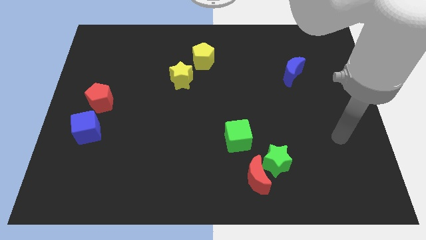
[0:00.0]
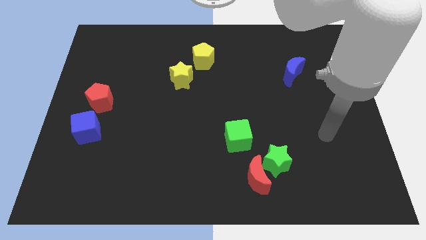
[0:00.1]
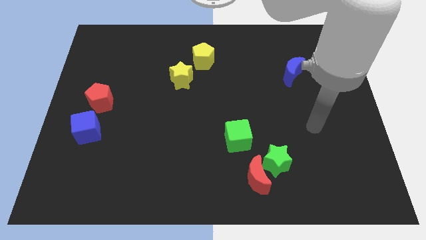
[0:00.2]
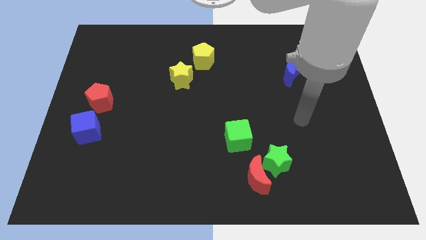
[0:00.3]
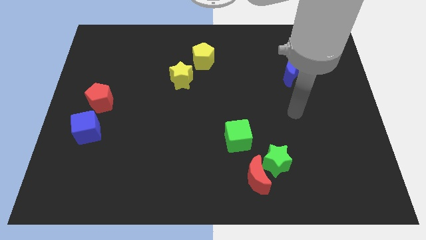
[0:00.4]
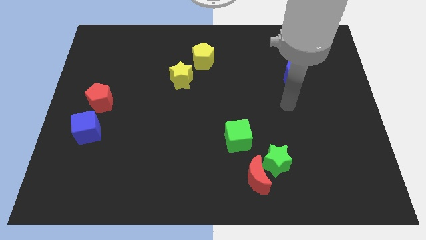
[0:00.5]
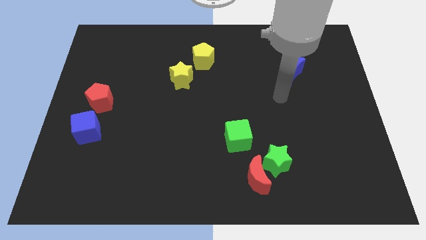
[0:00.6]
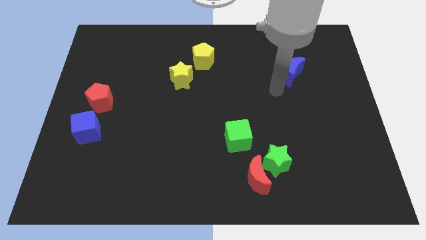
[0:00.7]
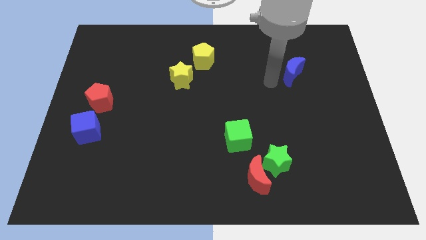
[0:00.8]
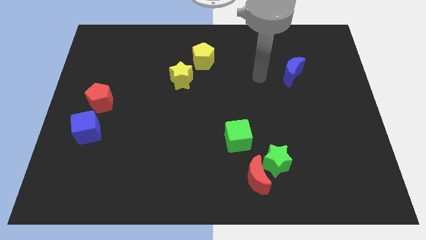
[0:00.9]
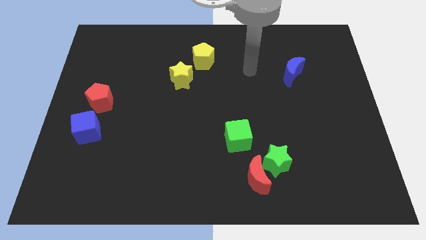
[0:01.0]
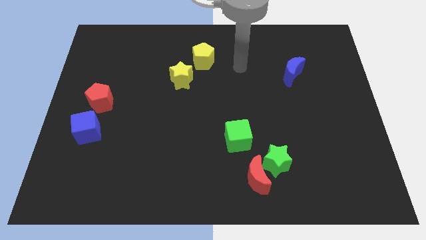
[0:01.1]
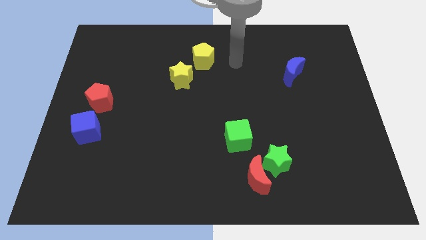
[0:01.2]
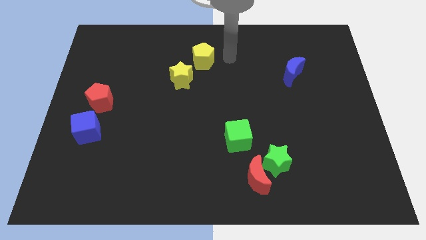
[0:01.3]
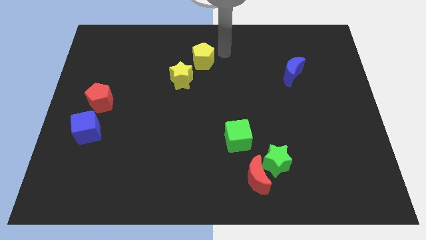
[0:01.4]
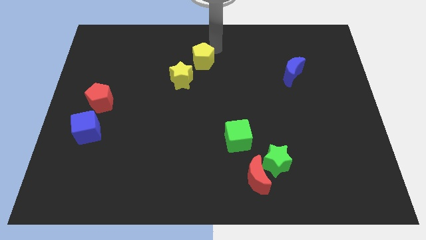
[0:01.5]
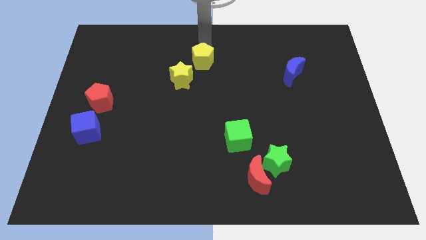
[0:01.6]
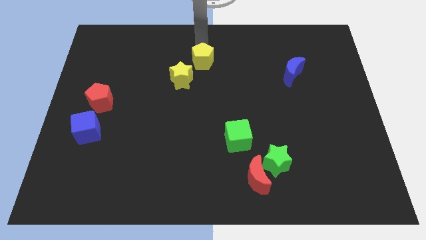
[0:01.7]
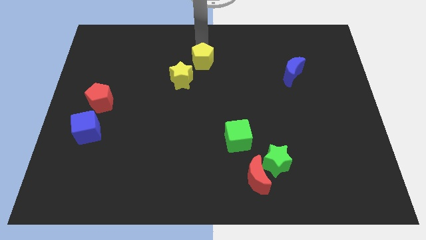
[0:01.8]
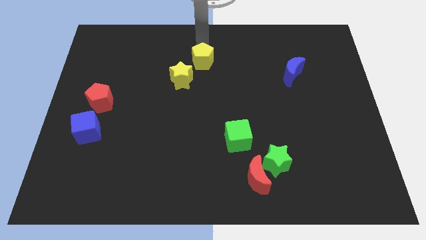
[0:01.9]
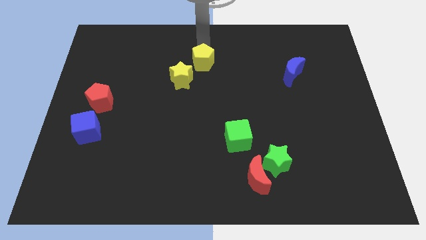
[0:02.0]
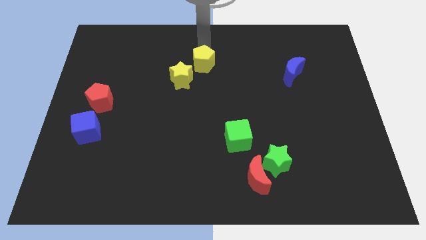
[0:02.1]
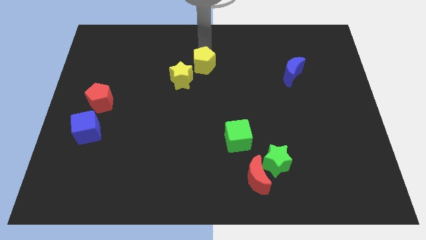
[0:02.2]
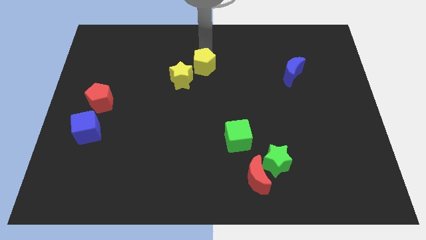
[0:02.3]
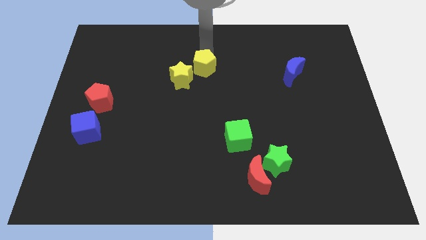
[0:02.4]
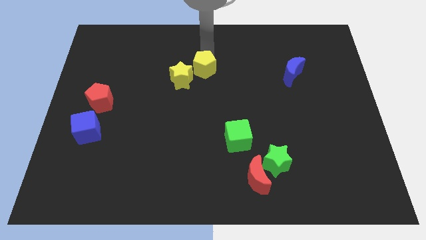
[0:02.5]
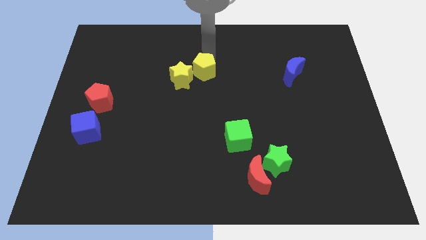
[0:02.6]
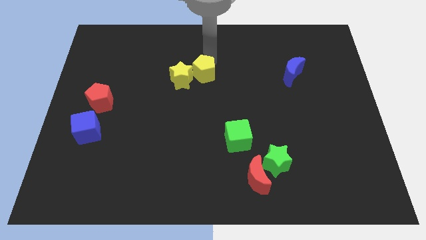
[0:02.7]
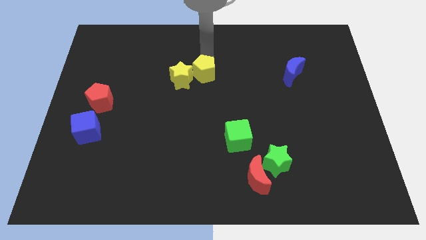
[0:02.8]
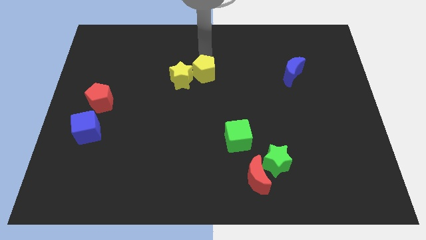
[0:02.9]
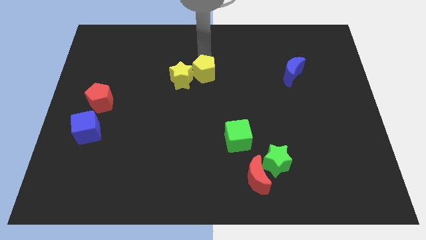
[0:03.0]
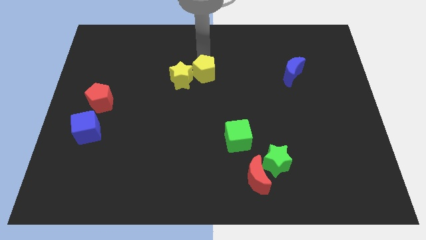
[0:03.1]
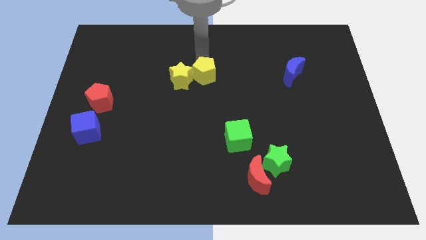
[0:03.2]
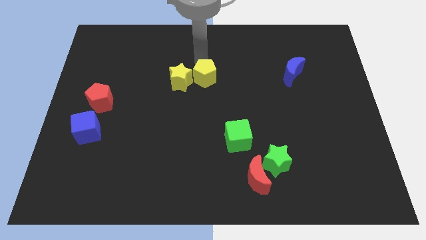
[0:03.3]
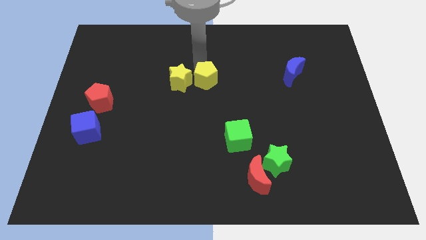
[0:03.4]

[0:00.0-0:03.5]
slightly move the yellow pentagon downwards

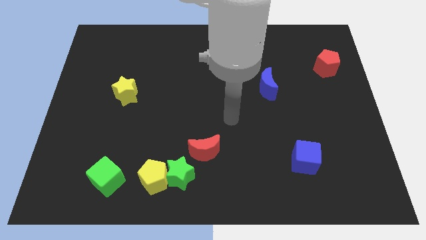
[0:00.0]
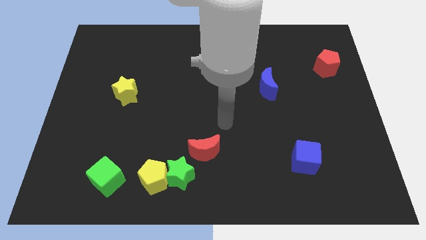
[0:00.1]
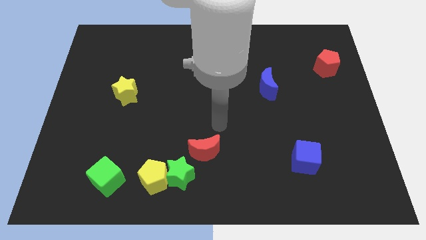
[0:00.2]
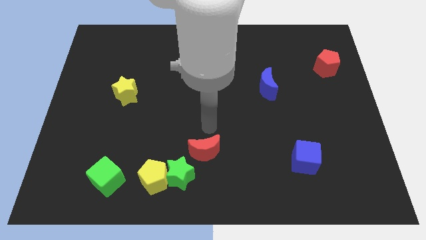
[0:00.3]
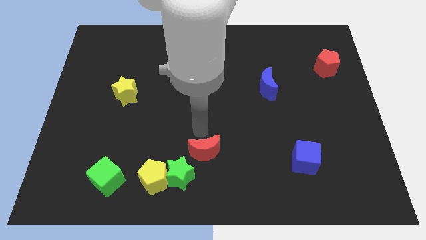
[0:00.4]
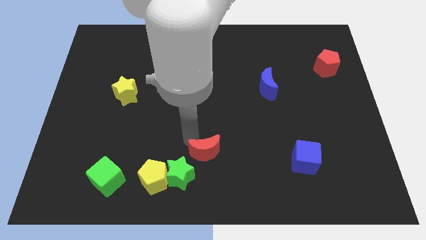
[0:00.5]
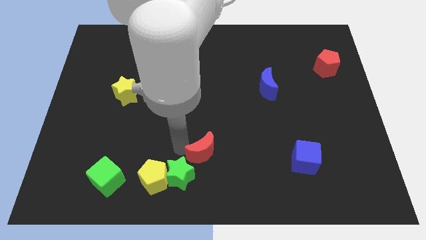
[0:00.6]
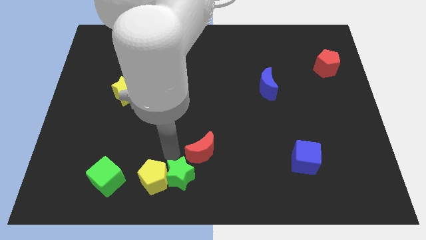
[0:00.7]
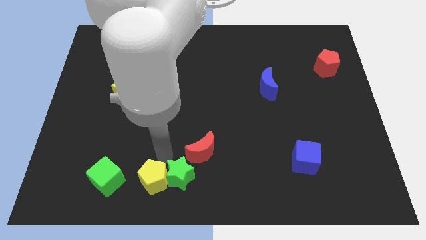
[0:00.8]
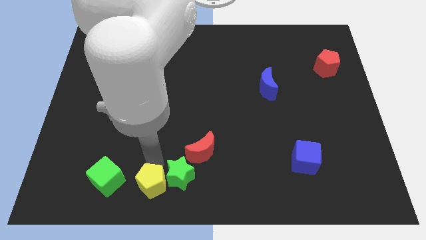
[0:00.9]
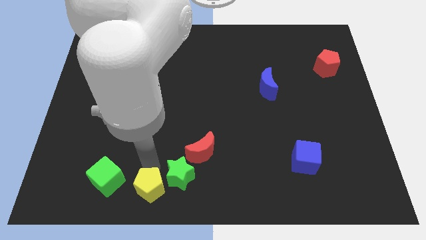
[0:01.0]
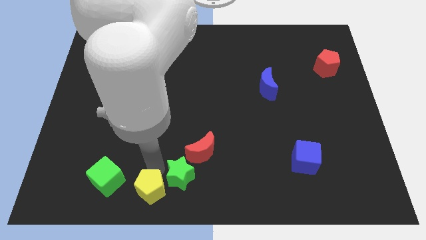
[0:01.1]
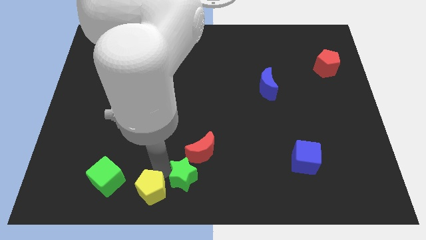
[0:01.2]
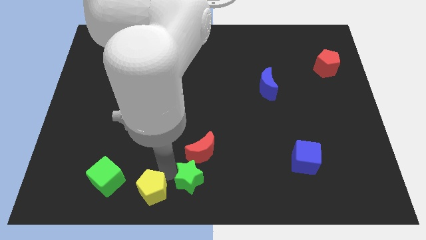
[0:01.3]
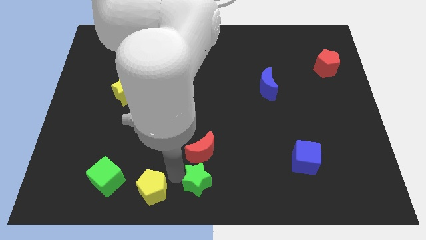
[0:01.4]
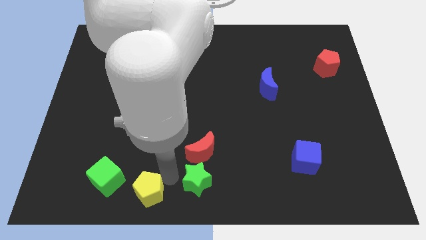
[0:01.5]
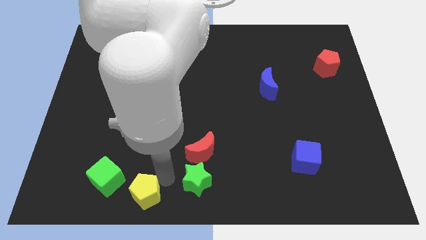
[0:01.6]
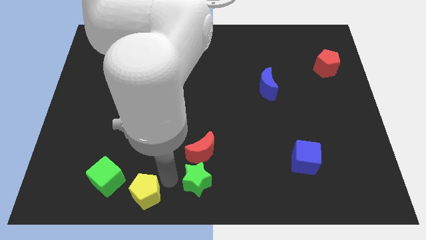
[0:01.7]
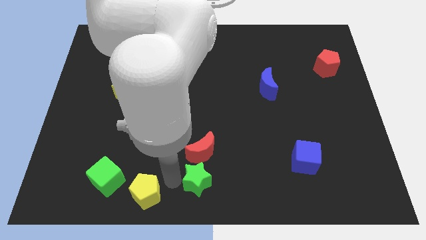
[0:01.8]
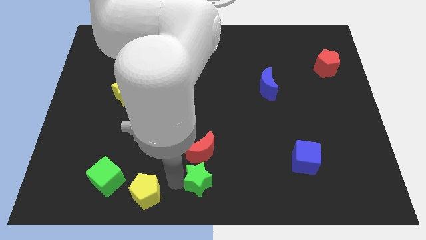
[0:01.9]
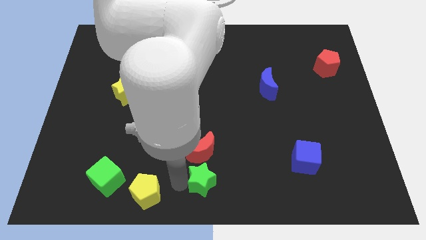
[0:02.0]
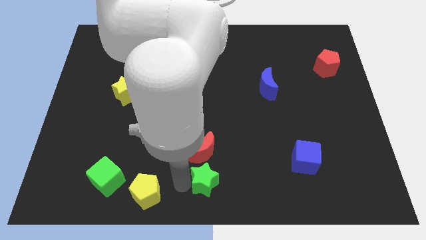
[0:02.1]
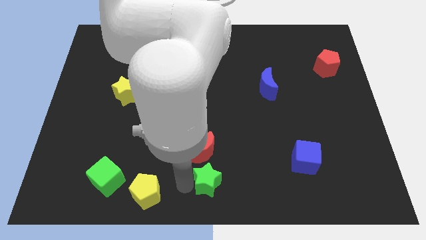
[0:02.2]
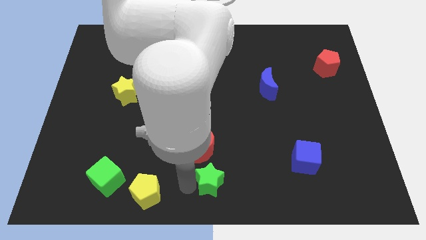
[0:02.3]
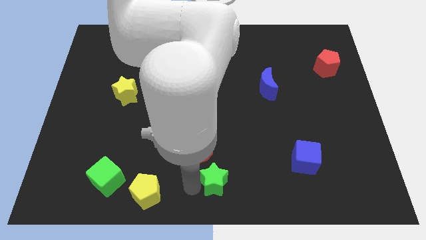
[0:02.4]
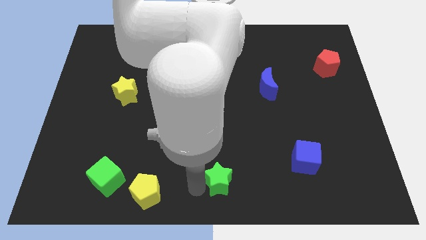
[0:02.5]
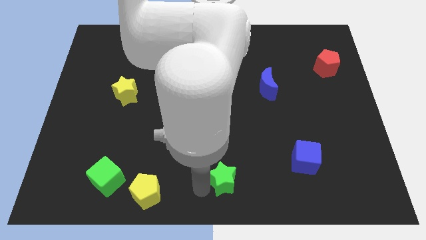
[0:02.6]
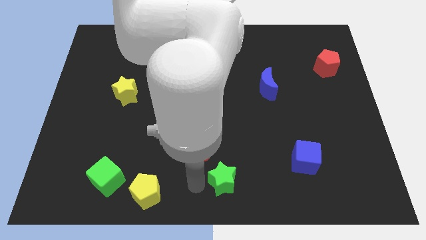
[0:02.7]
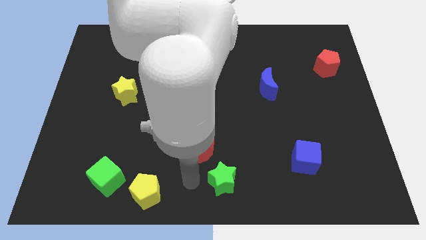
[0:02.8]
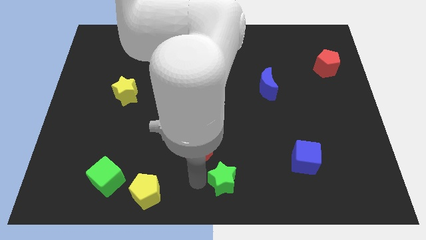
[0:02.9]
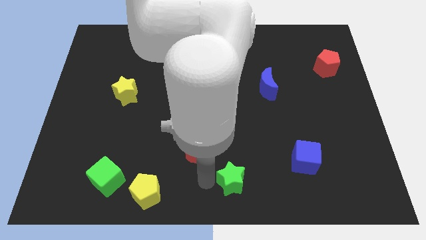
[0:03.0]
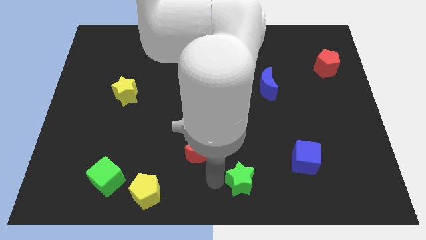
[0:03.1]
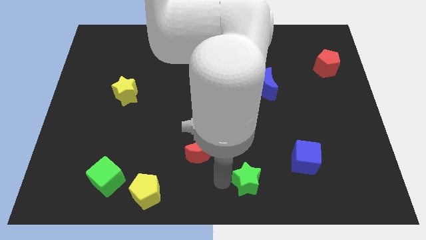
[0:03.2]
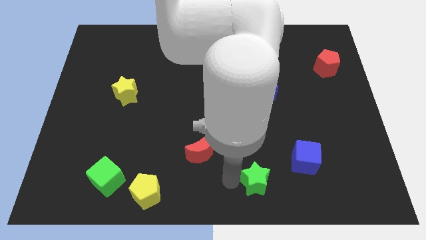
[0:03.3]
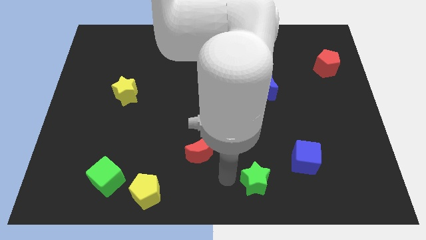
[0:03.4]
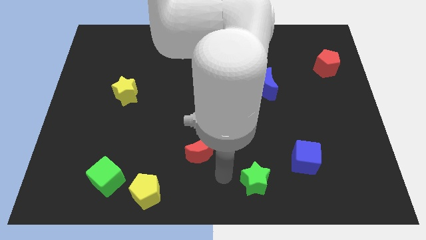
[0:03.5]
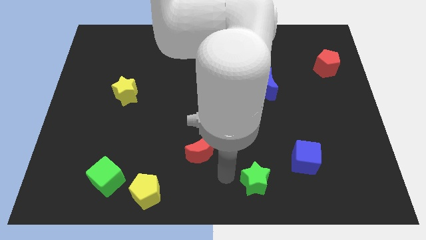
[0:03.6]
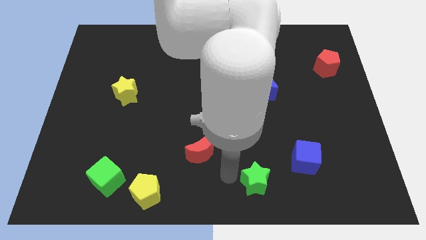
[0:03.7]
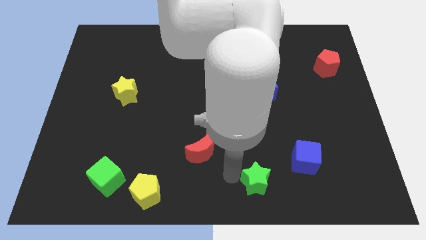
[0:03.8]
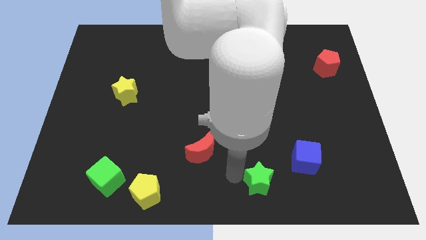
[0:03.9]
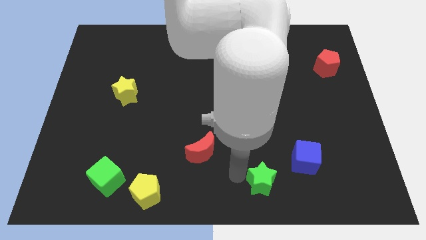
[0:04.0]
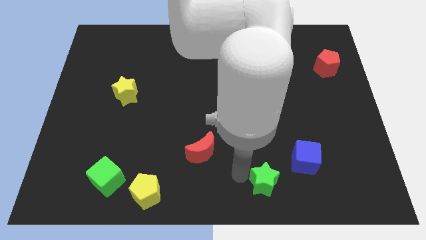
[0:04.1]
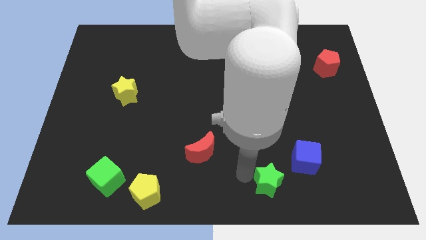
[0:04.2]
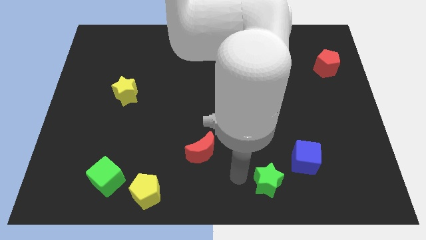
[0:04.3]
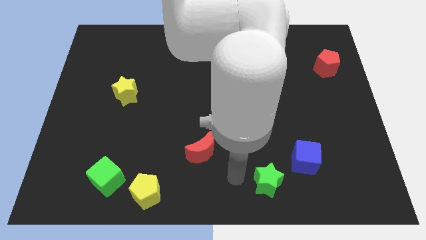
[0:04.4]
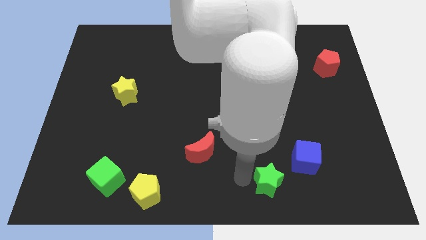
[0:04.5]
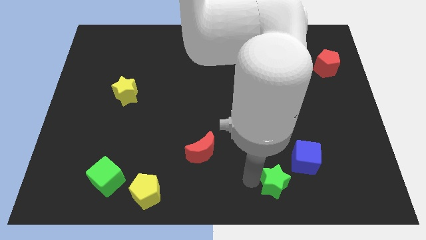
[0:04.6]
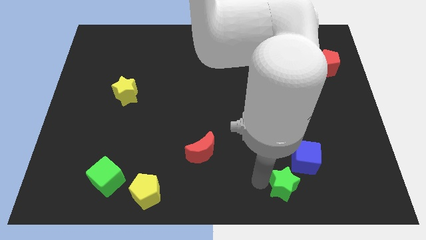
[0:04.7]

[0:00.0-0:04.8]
move the green star to the right
